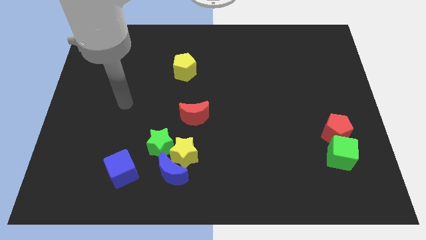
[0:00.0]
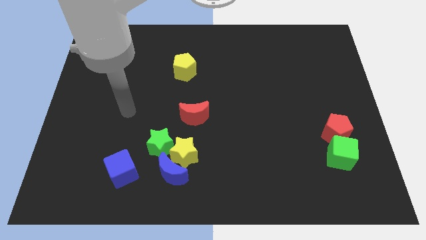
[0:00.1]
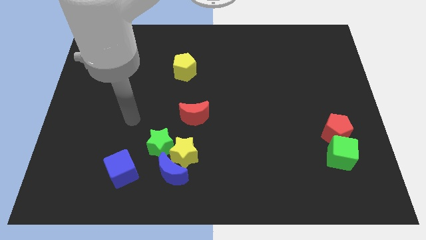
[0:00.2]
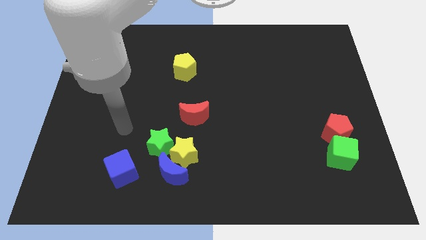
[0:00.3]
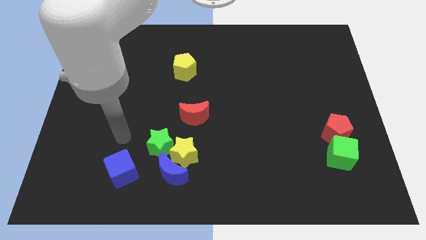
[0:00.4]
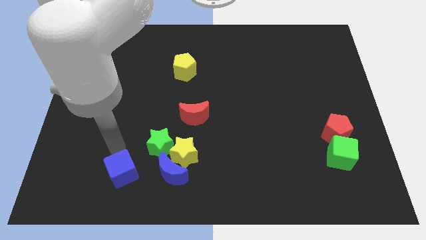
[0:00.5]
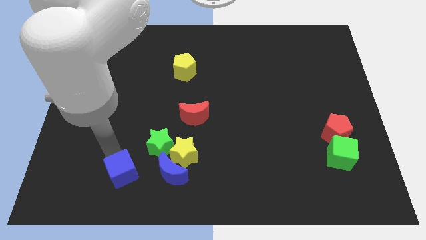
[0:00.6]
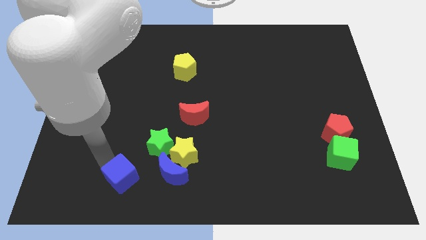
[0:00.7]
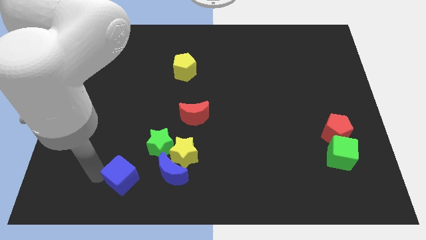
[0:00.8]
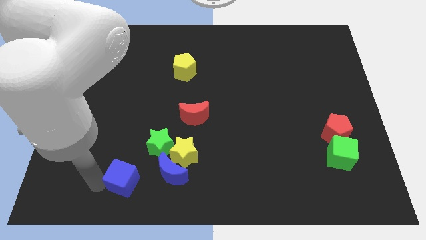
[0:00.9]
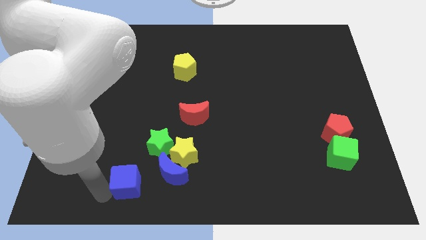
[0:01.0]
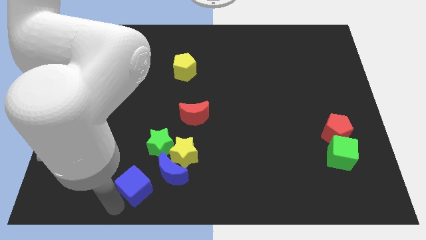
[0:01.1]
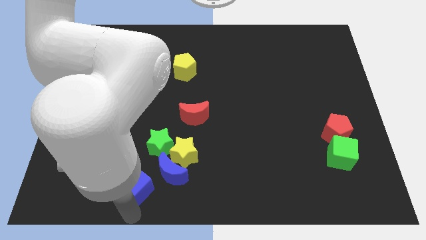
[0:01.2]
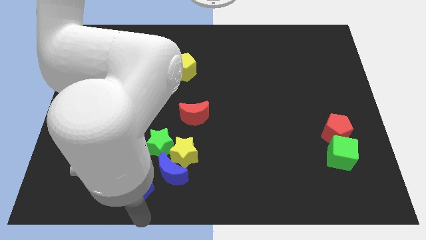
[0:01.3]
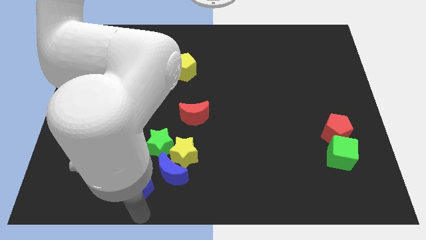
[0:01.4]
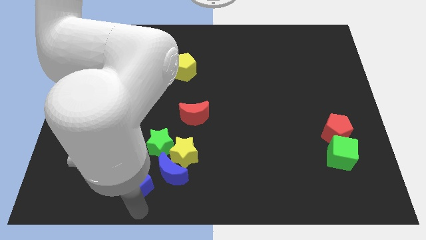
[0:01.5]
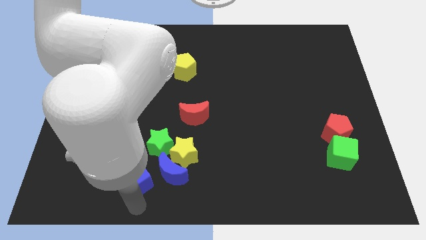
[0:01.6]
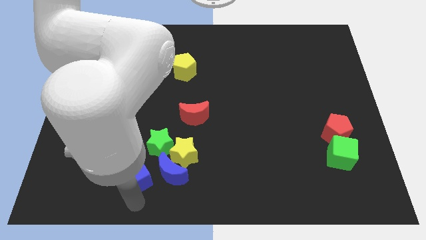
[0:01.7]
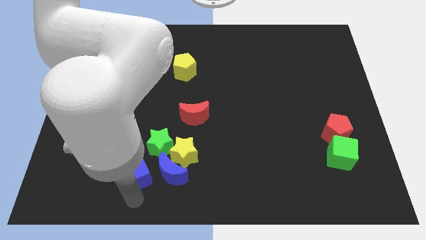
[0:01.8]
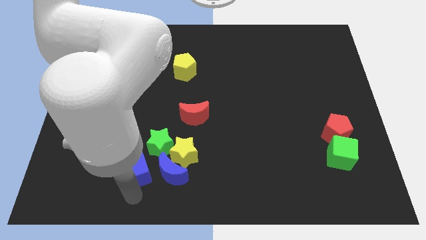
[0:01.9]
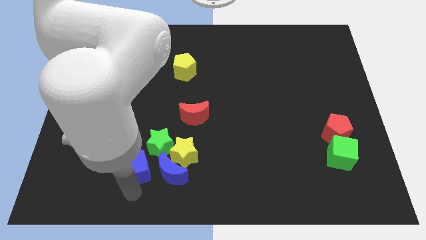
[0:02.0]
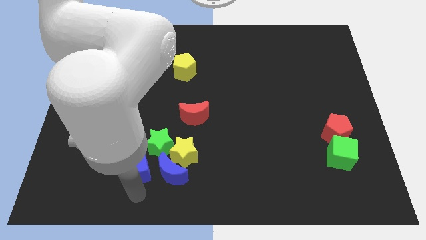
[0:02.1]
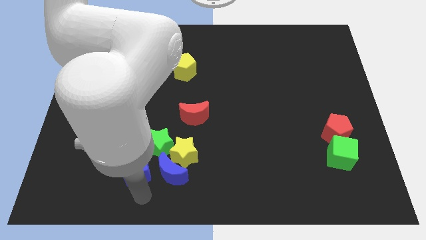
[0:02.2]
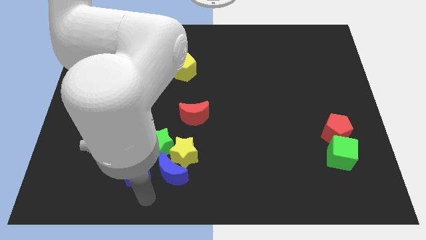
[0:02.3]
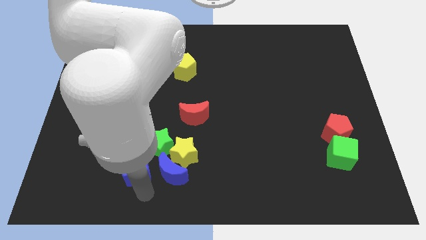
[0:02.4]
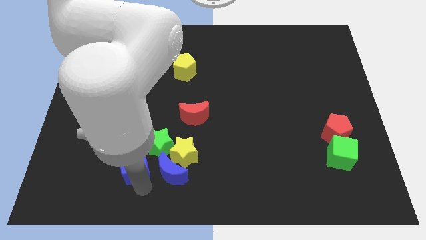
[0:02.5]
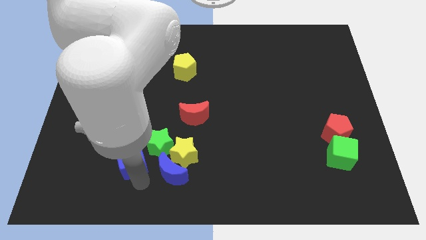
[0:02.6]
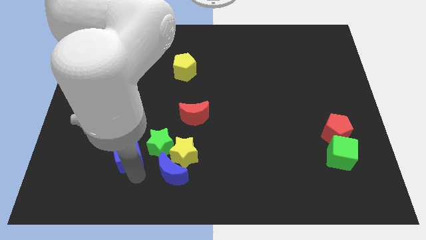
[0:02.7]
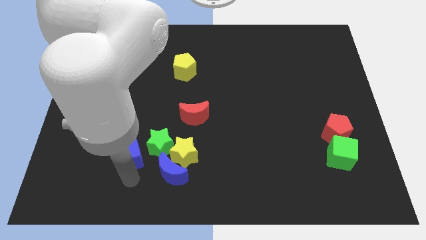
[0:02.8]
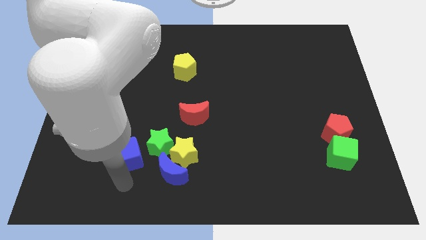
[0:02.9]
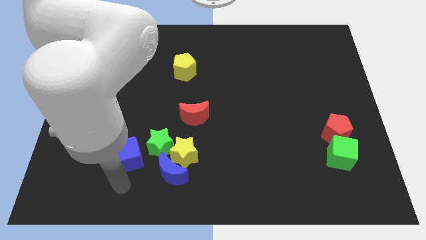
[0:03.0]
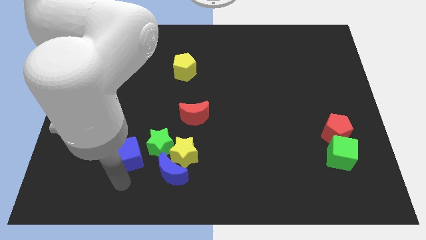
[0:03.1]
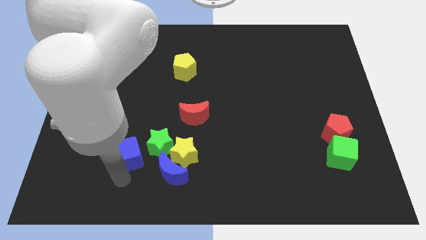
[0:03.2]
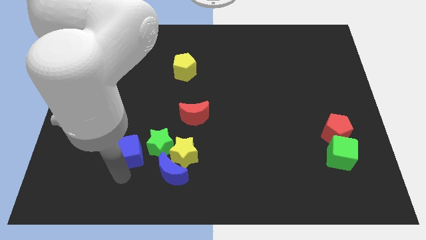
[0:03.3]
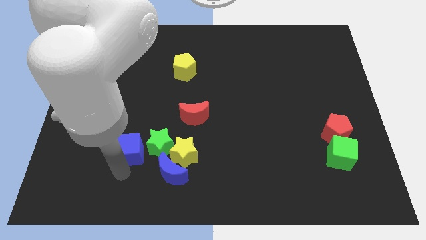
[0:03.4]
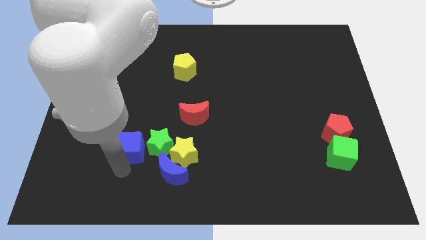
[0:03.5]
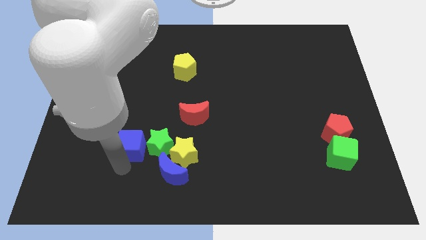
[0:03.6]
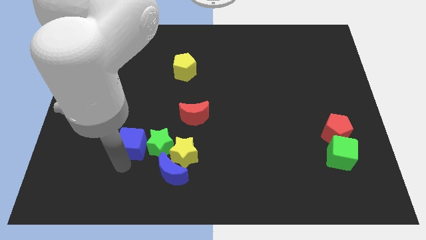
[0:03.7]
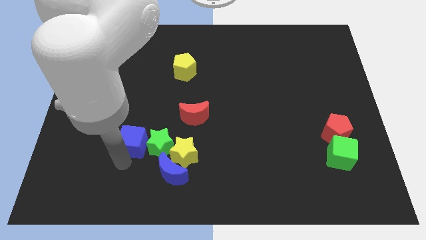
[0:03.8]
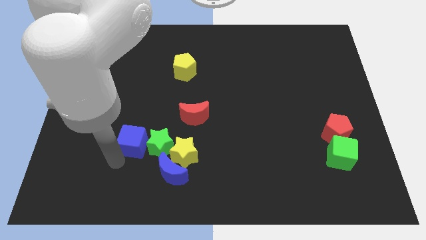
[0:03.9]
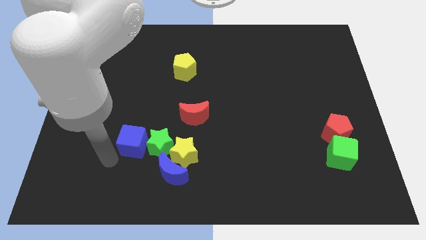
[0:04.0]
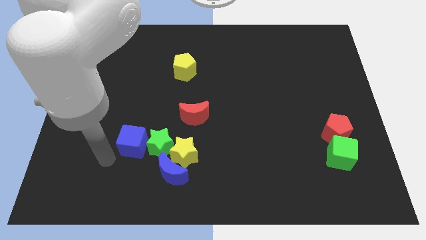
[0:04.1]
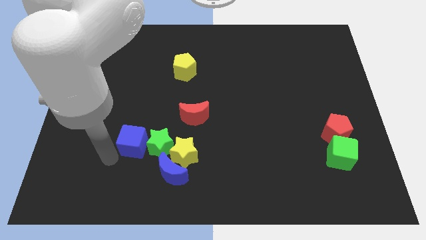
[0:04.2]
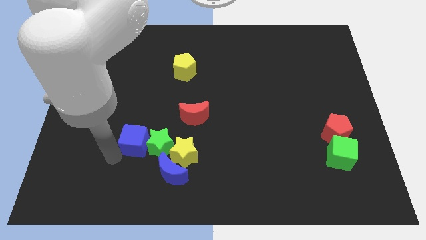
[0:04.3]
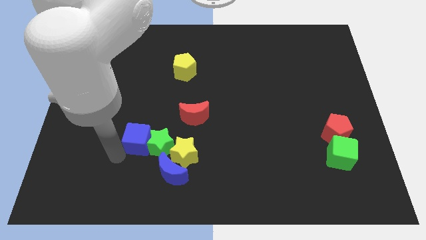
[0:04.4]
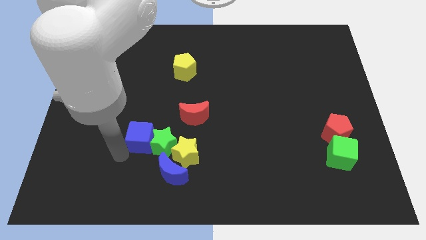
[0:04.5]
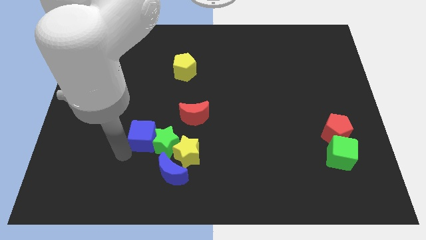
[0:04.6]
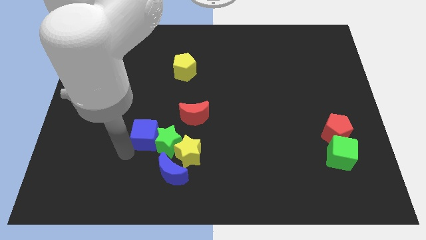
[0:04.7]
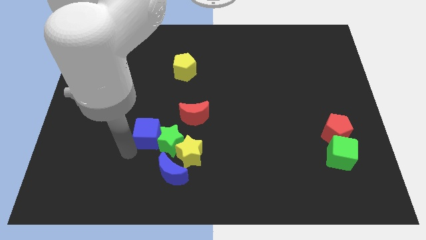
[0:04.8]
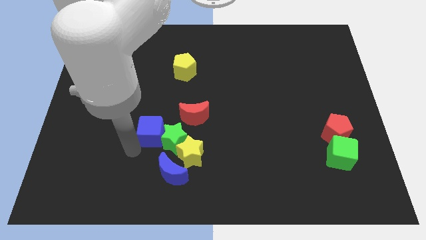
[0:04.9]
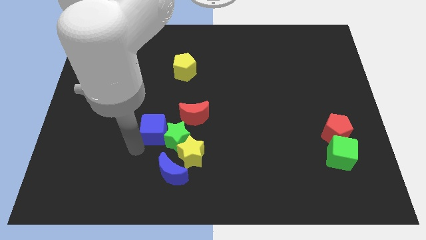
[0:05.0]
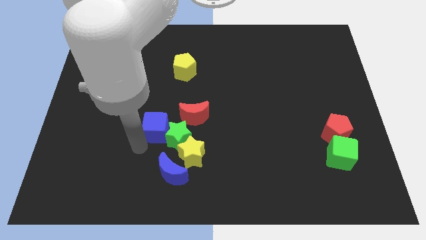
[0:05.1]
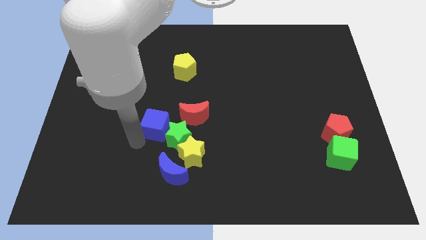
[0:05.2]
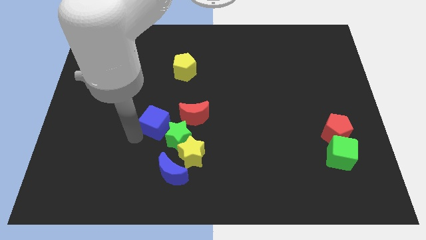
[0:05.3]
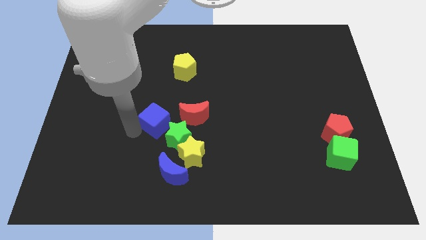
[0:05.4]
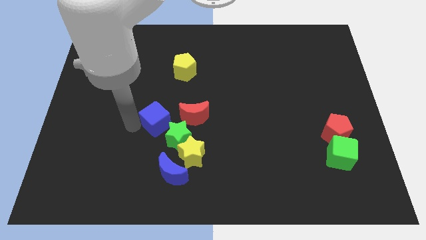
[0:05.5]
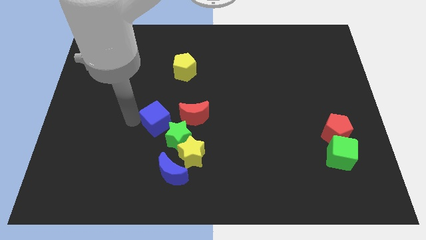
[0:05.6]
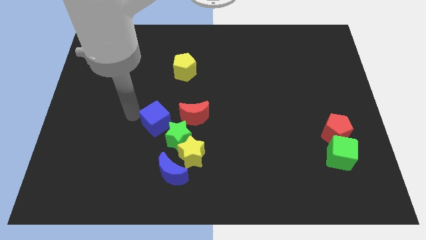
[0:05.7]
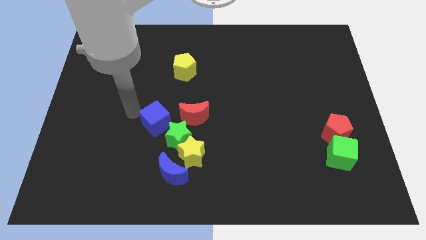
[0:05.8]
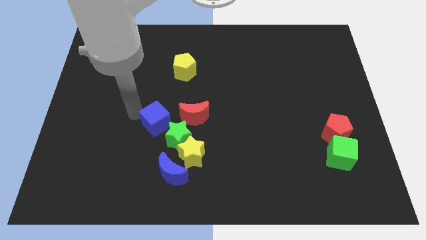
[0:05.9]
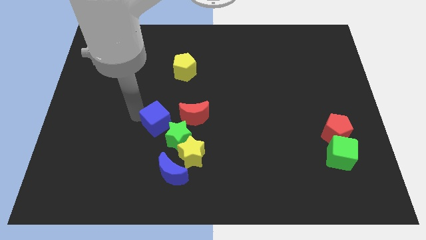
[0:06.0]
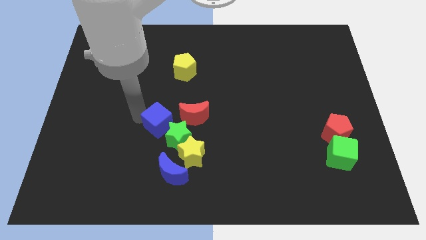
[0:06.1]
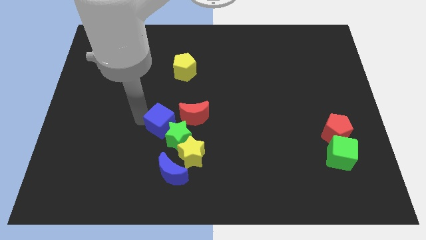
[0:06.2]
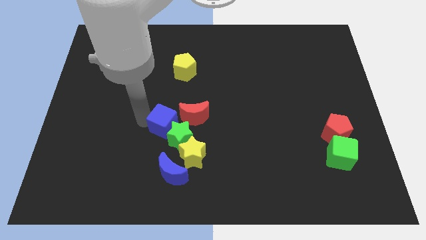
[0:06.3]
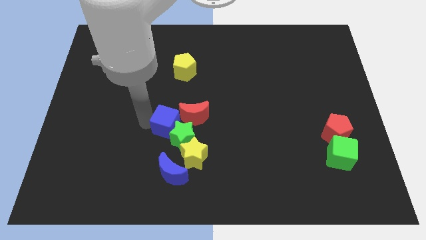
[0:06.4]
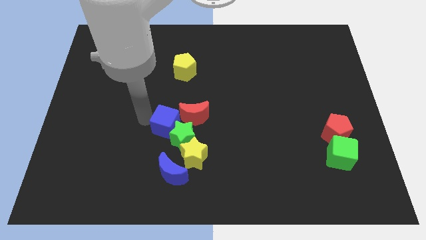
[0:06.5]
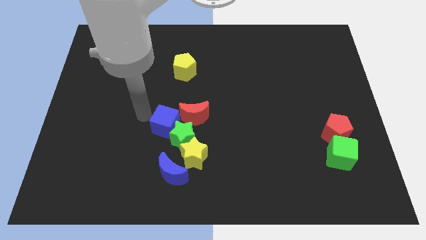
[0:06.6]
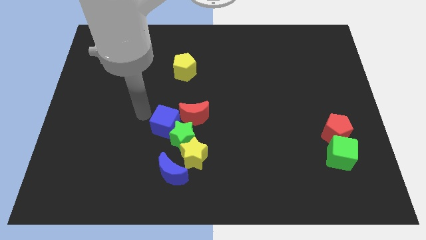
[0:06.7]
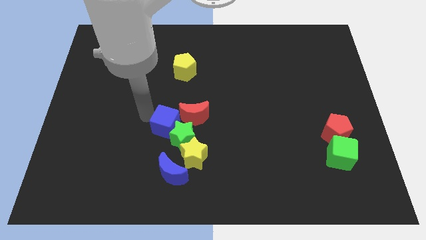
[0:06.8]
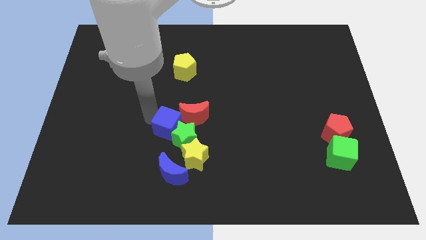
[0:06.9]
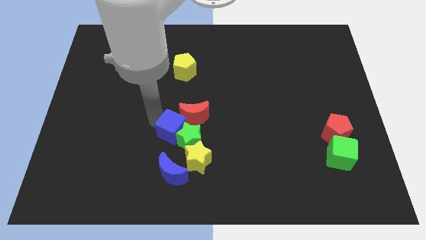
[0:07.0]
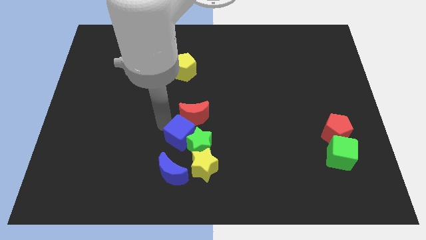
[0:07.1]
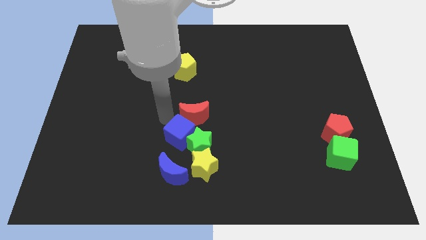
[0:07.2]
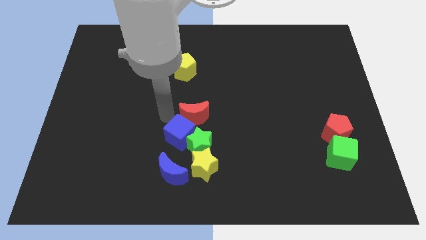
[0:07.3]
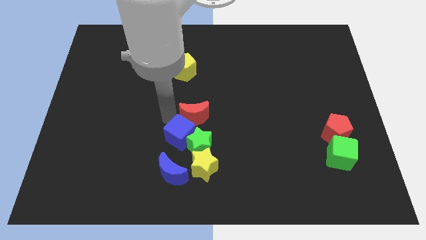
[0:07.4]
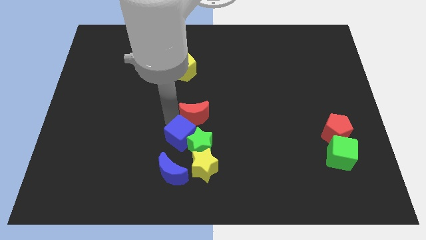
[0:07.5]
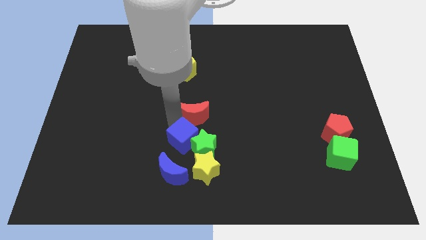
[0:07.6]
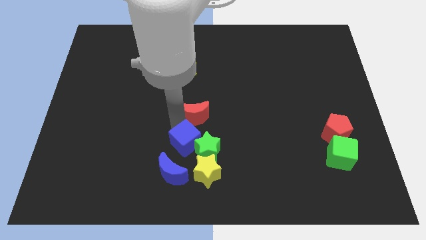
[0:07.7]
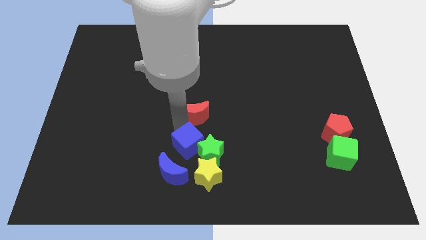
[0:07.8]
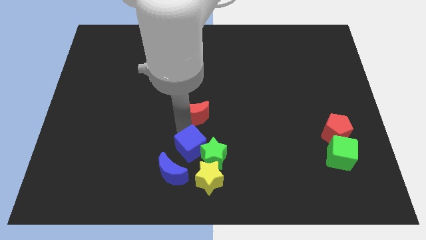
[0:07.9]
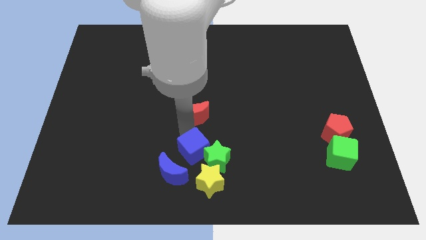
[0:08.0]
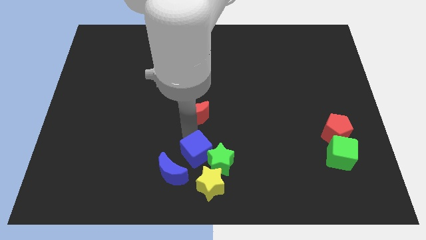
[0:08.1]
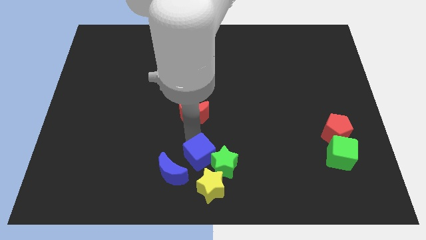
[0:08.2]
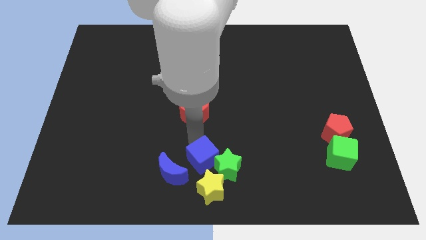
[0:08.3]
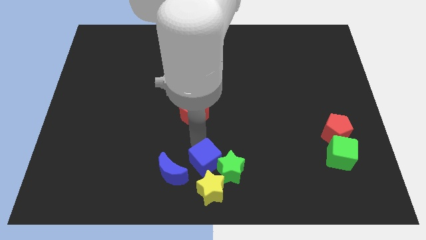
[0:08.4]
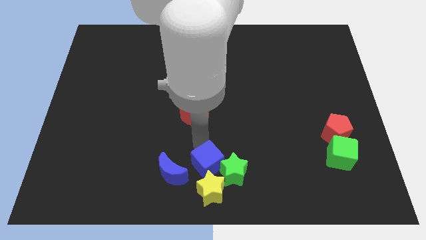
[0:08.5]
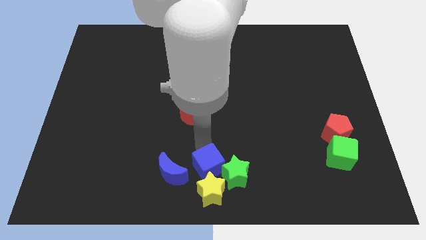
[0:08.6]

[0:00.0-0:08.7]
push the blue cube close to the yellow star
